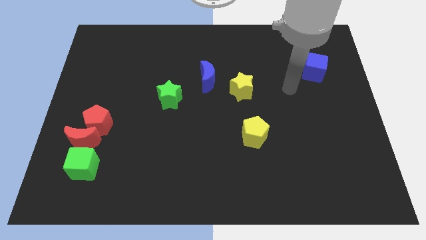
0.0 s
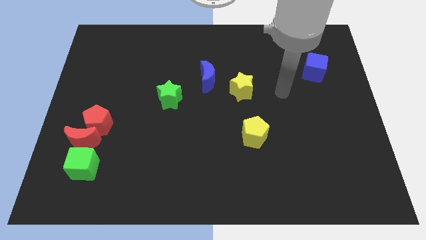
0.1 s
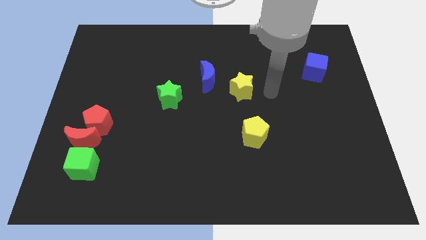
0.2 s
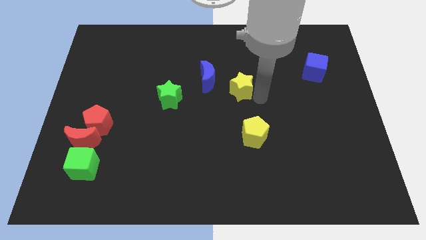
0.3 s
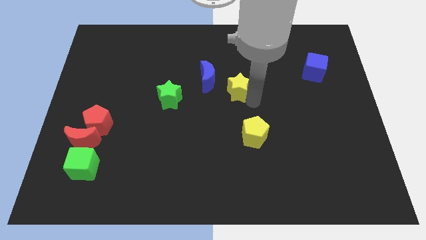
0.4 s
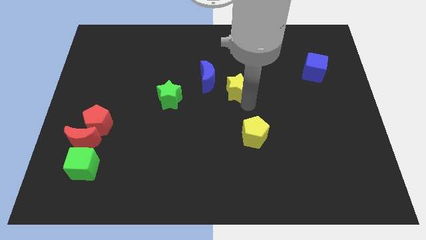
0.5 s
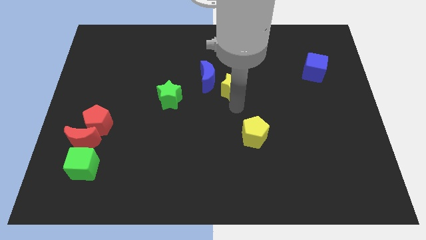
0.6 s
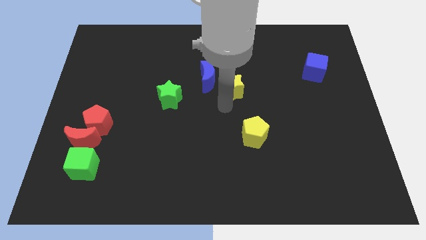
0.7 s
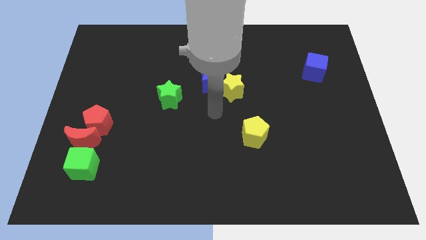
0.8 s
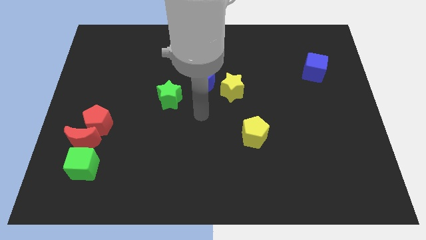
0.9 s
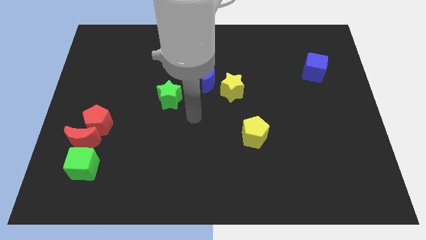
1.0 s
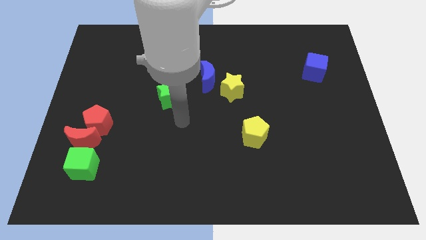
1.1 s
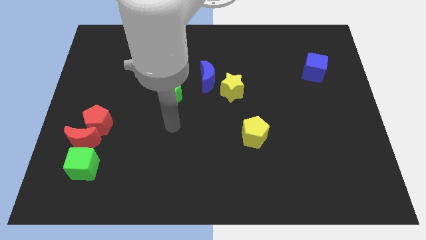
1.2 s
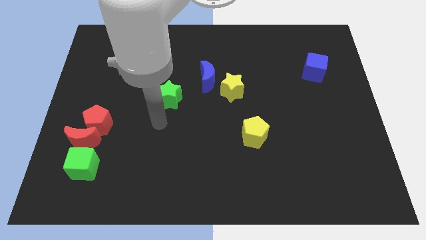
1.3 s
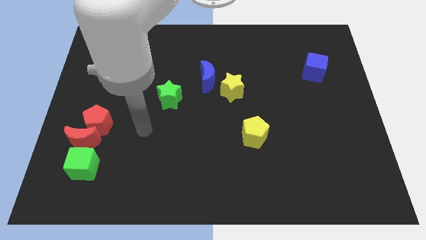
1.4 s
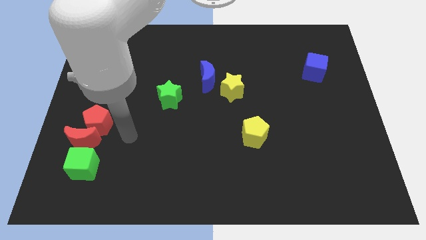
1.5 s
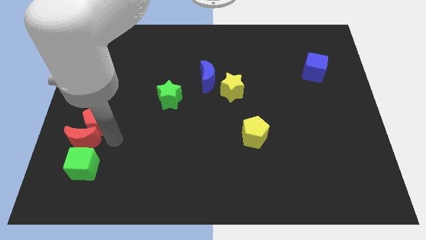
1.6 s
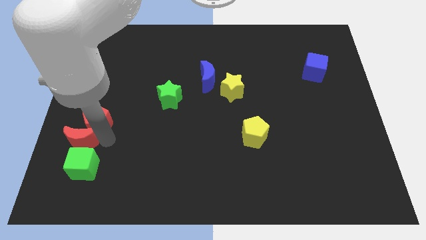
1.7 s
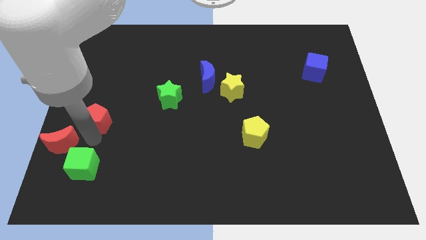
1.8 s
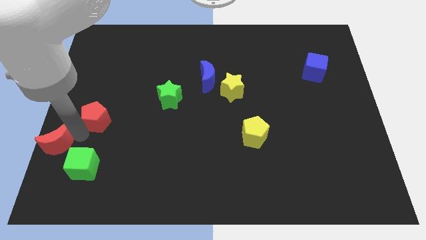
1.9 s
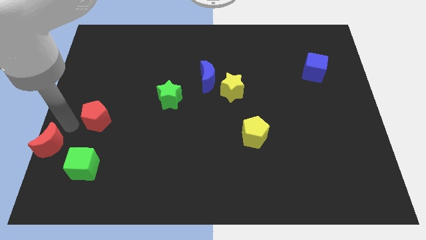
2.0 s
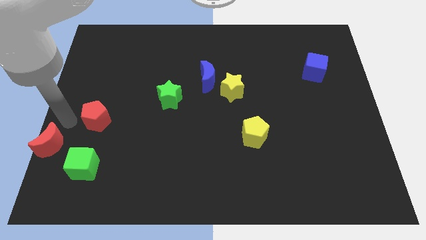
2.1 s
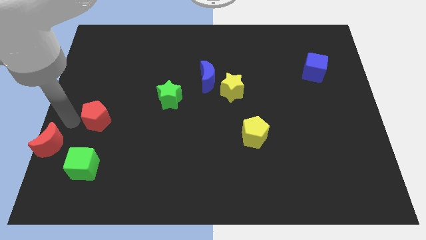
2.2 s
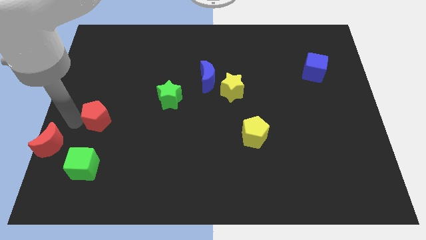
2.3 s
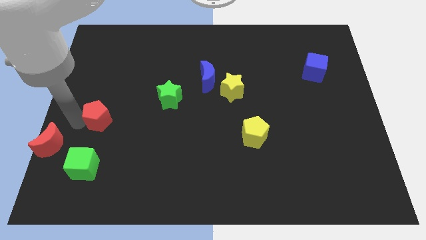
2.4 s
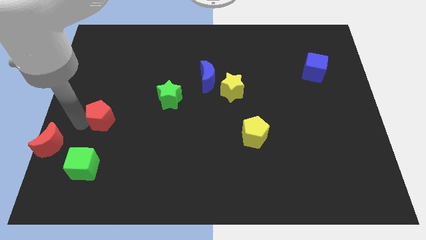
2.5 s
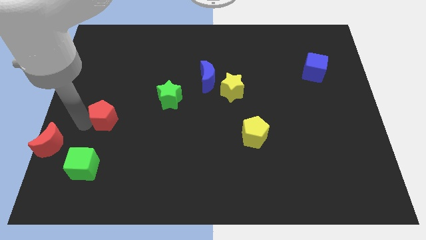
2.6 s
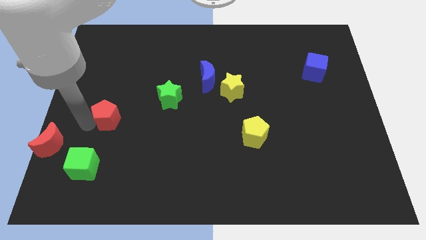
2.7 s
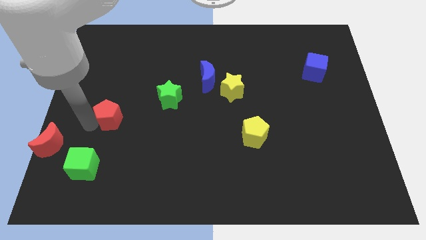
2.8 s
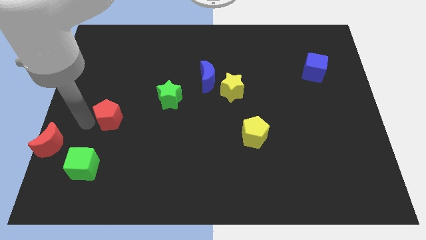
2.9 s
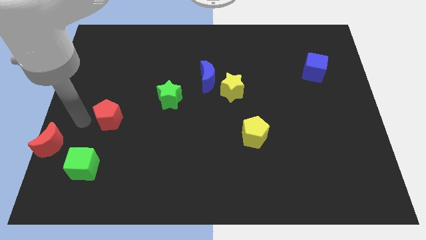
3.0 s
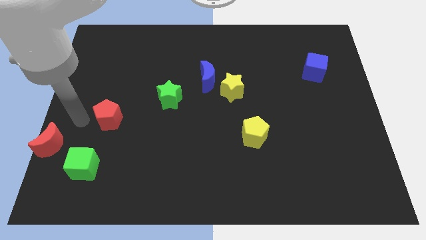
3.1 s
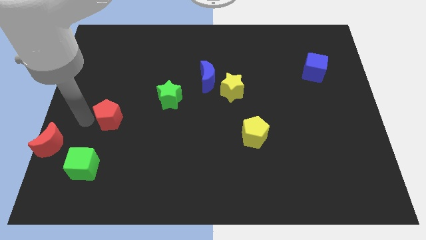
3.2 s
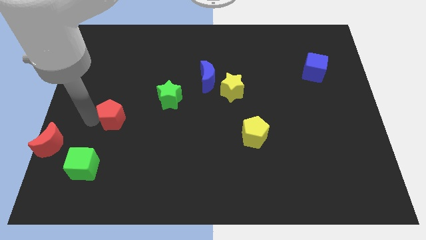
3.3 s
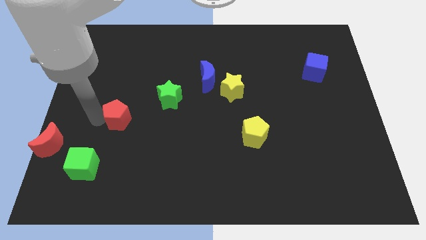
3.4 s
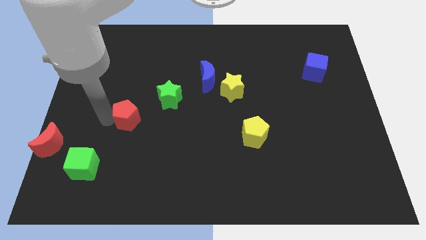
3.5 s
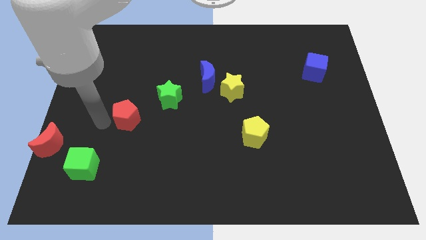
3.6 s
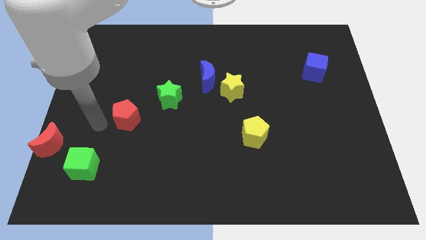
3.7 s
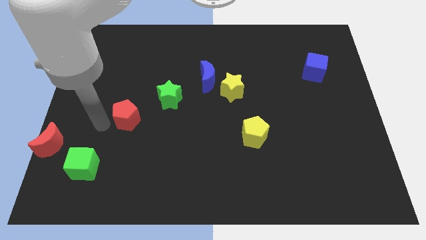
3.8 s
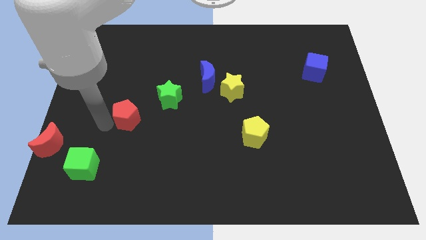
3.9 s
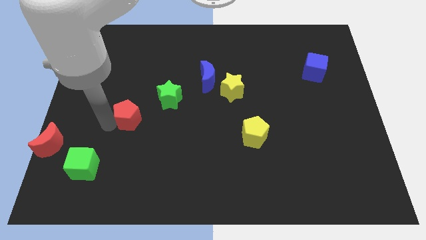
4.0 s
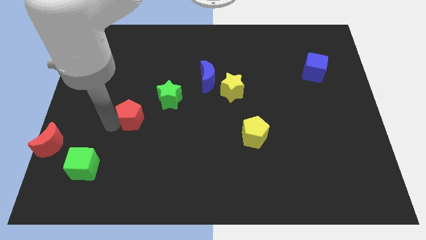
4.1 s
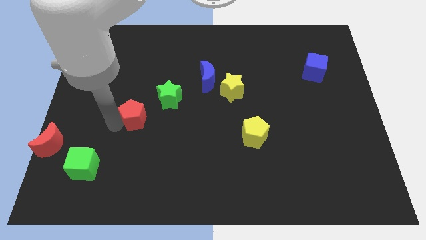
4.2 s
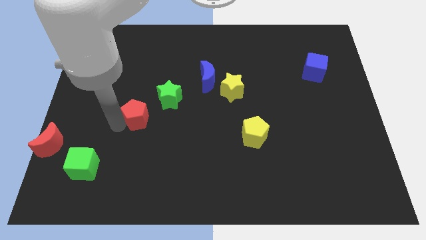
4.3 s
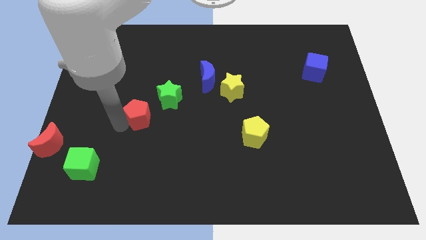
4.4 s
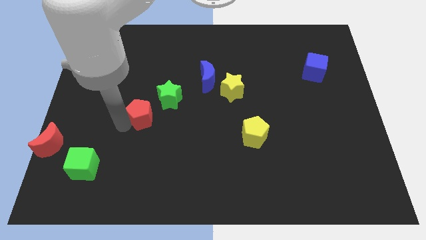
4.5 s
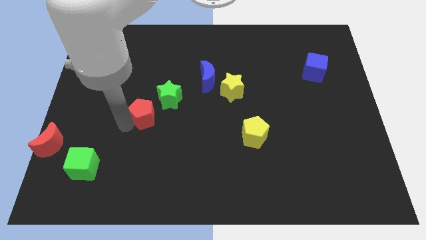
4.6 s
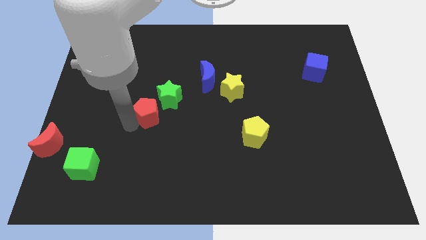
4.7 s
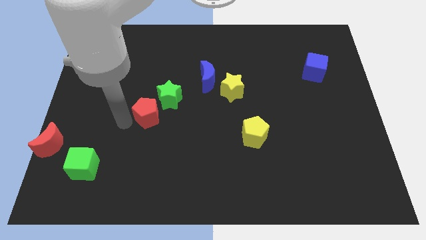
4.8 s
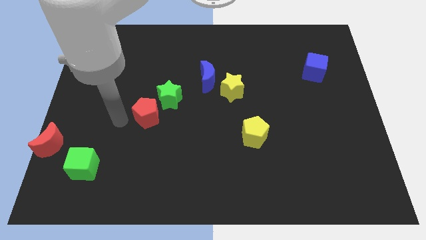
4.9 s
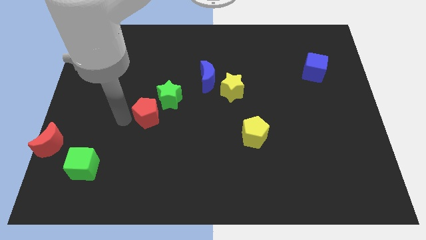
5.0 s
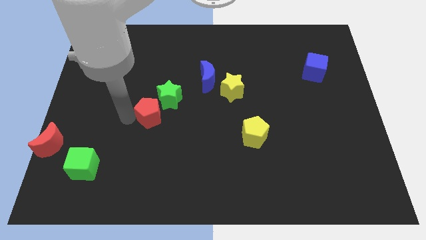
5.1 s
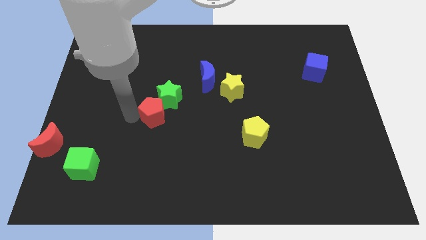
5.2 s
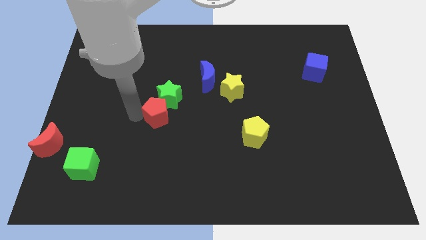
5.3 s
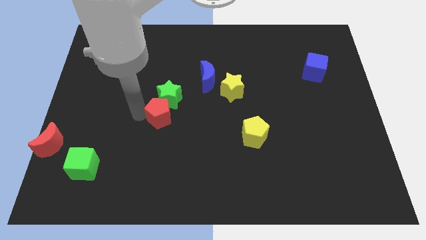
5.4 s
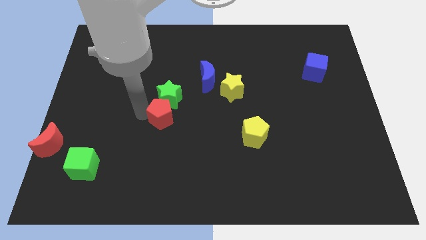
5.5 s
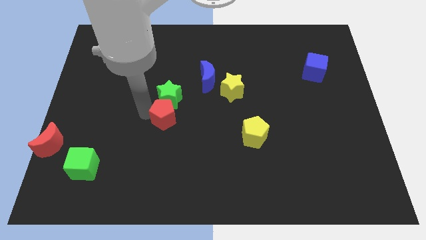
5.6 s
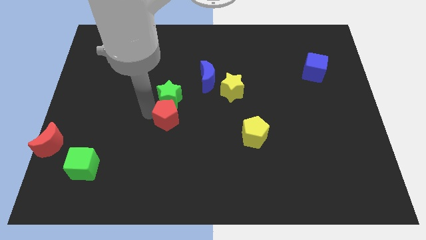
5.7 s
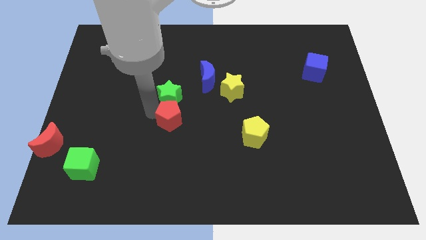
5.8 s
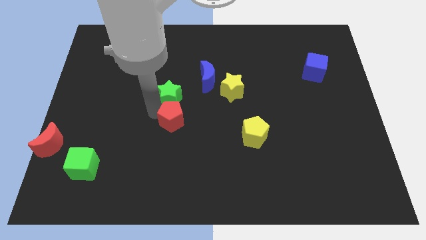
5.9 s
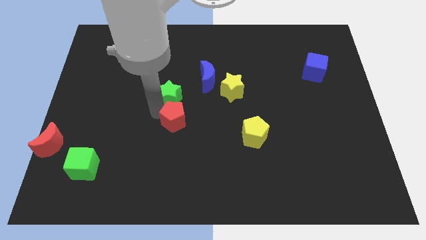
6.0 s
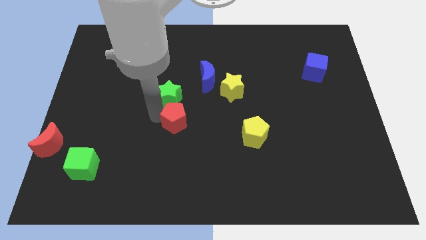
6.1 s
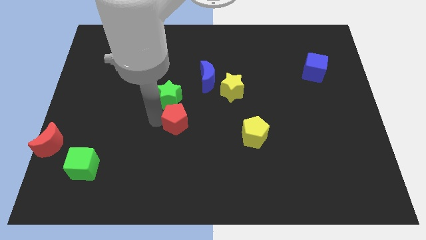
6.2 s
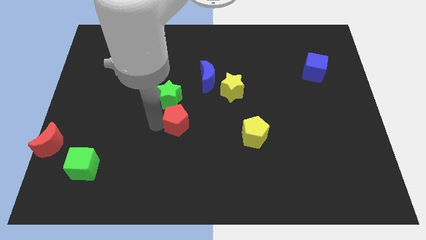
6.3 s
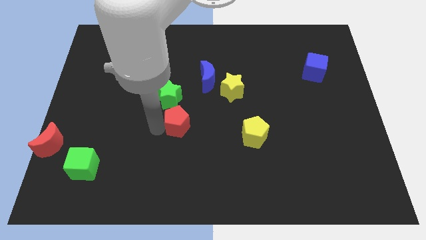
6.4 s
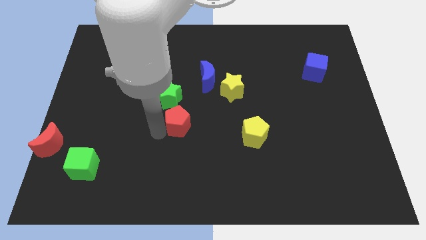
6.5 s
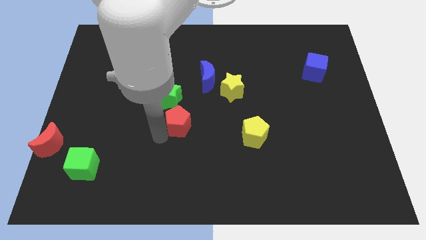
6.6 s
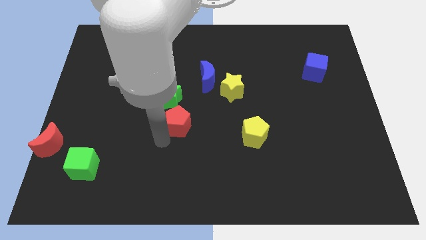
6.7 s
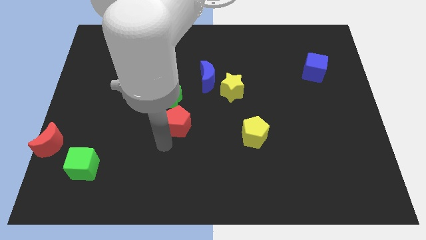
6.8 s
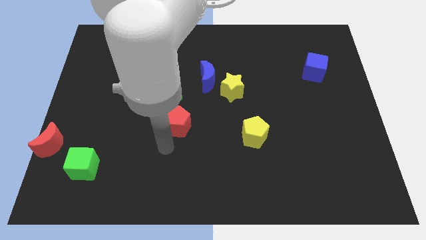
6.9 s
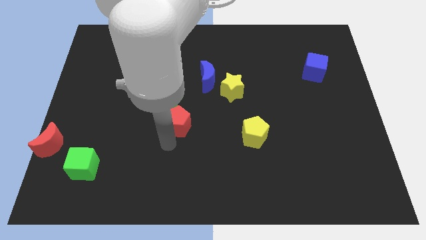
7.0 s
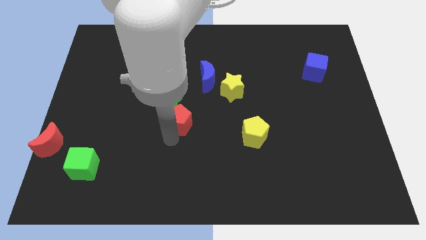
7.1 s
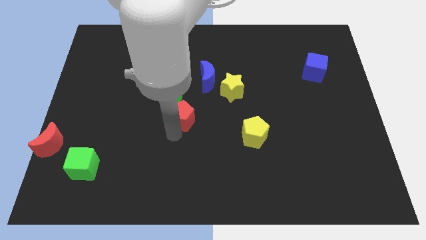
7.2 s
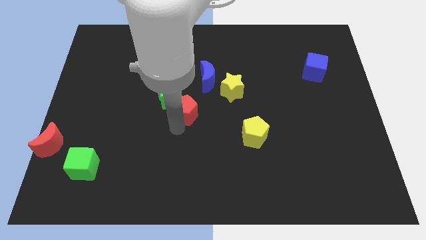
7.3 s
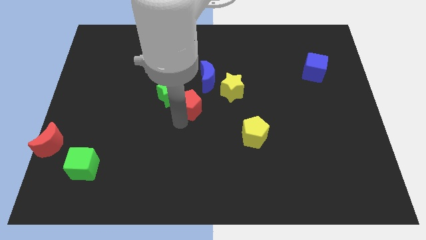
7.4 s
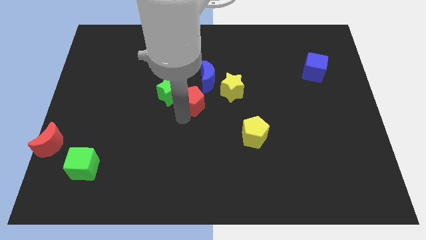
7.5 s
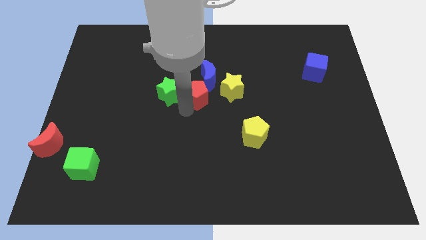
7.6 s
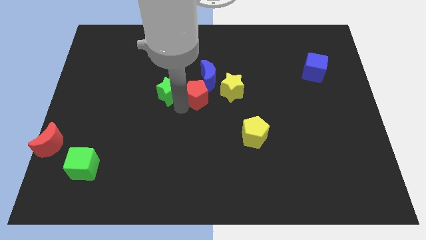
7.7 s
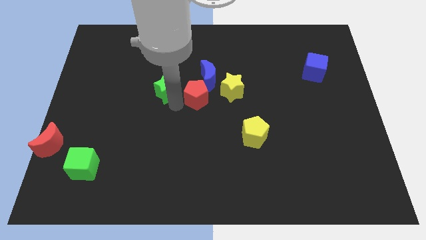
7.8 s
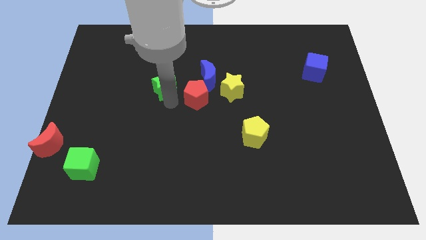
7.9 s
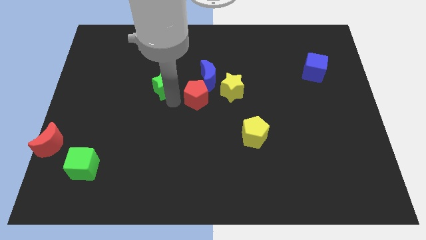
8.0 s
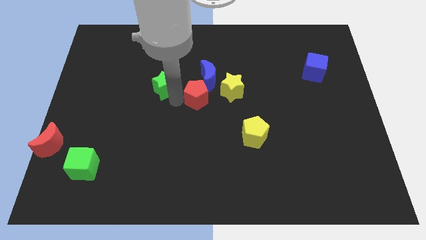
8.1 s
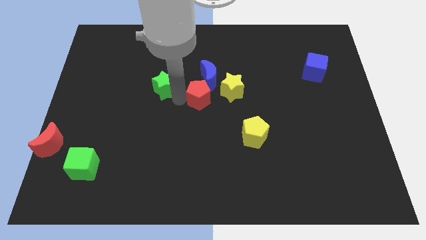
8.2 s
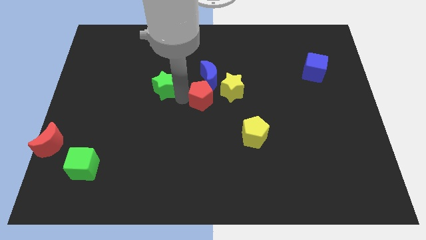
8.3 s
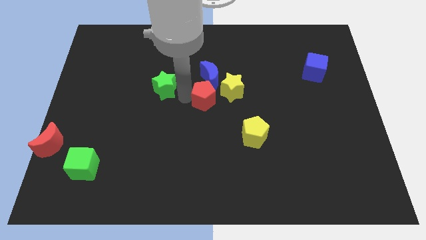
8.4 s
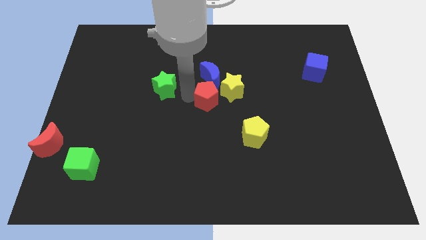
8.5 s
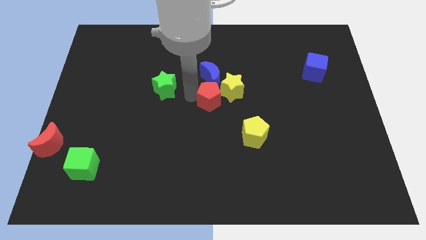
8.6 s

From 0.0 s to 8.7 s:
put the red pentagon towards the yellow star
